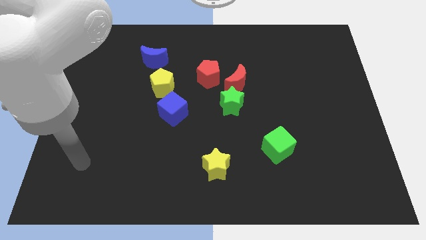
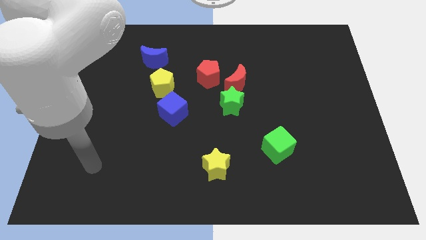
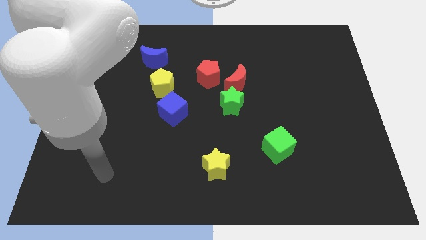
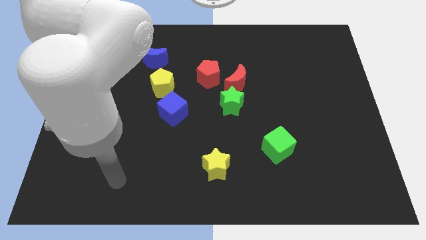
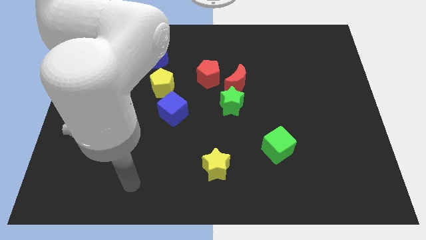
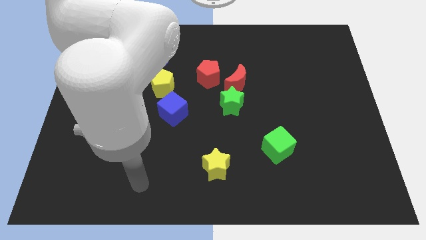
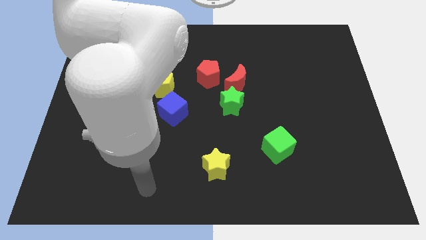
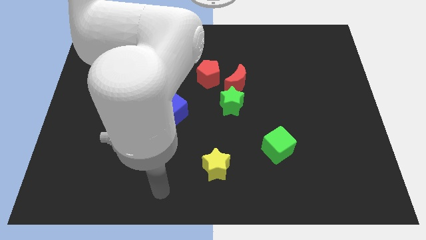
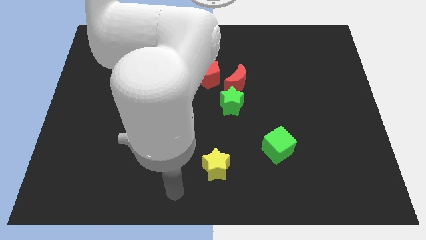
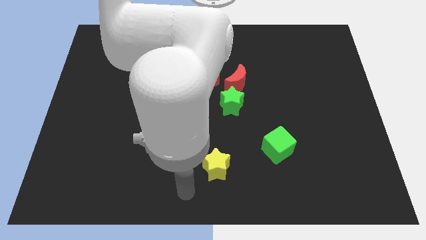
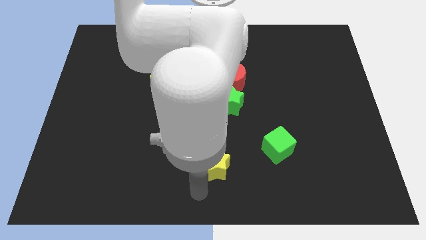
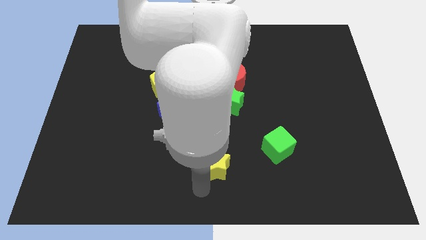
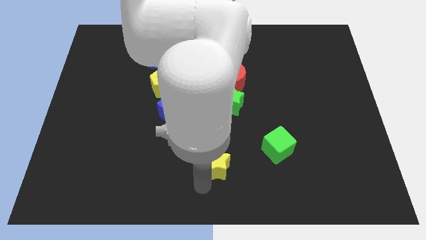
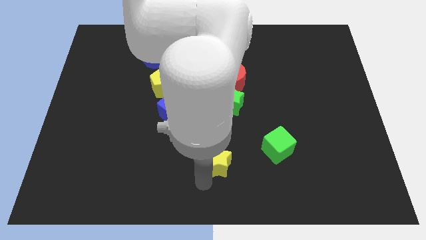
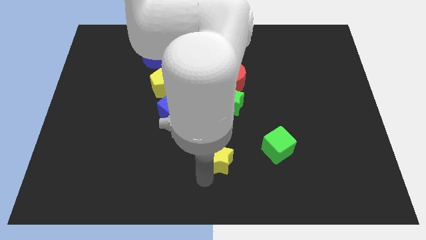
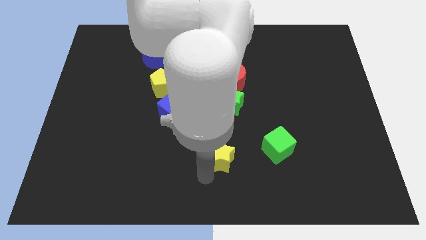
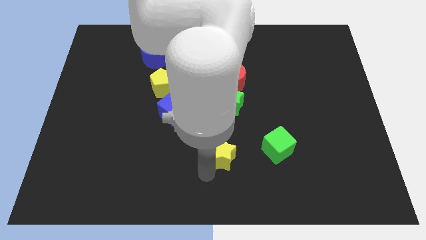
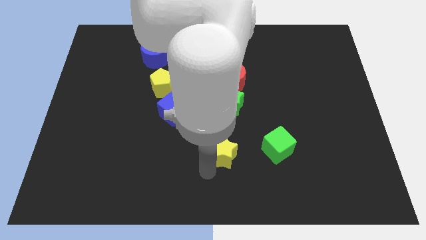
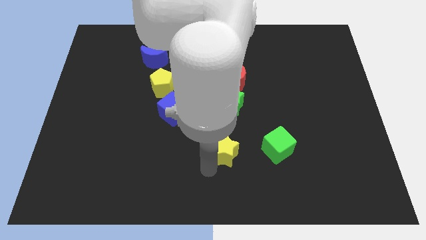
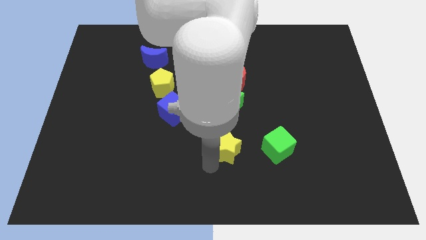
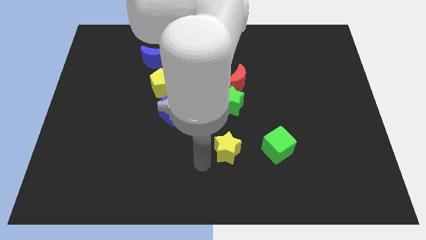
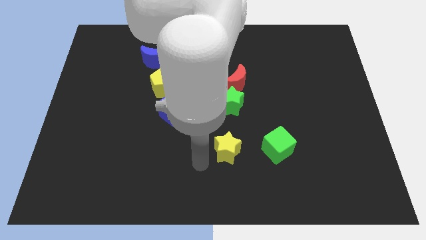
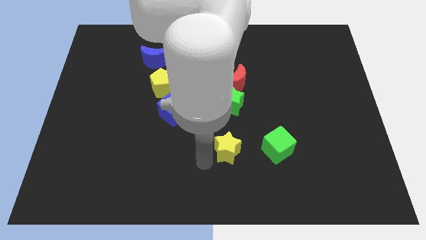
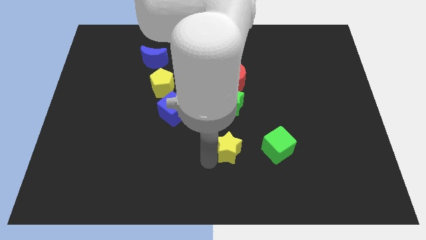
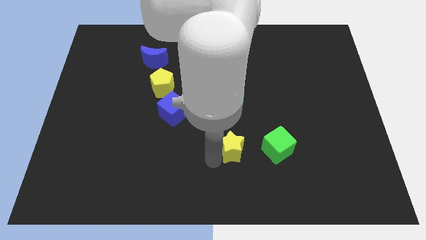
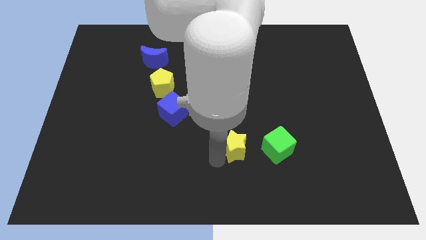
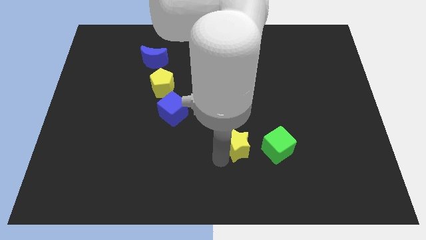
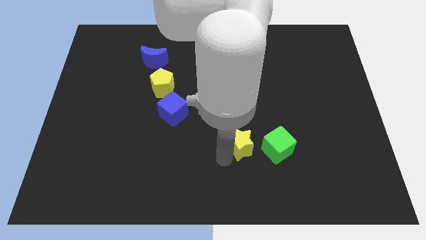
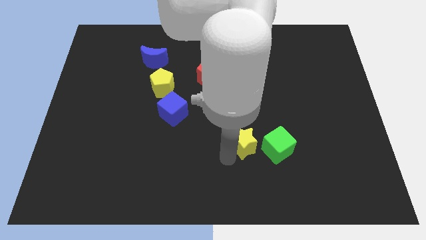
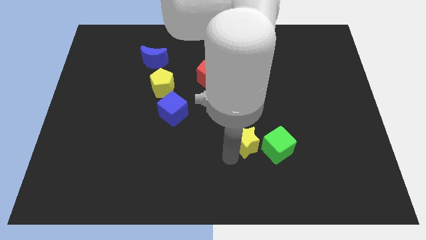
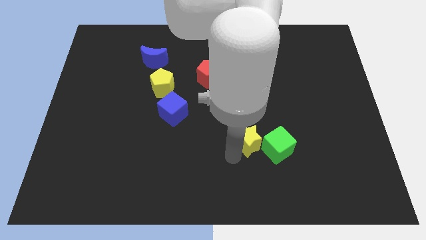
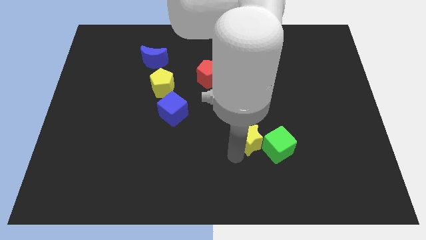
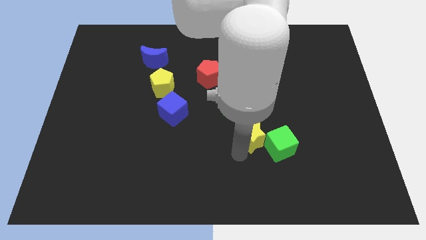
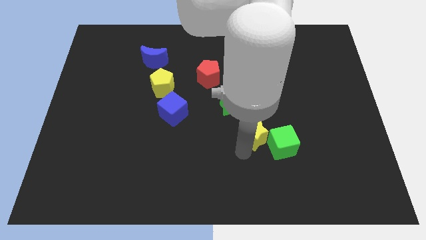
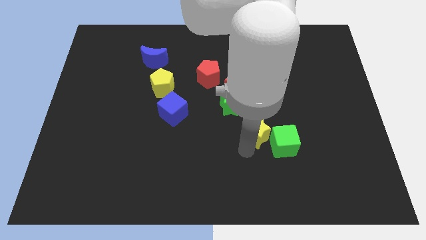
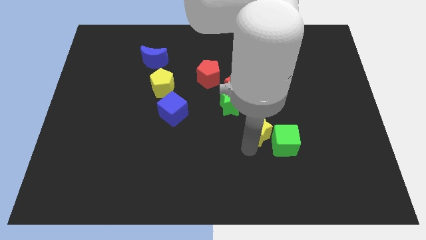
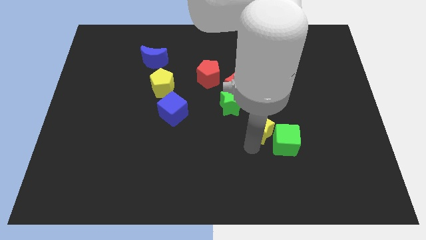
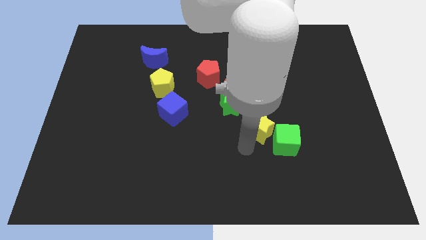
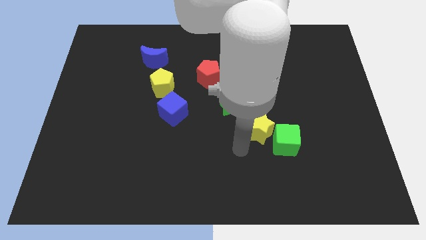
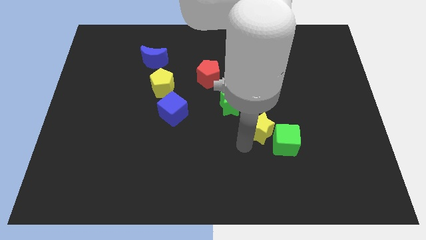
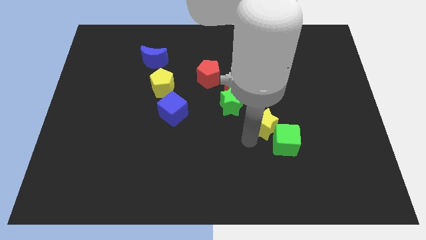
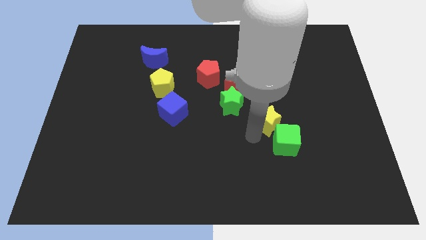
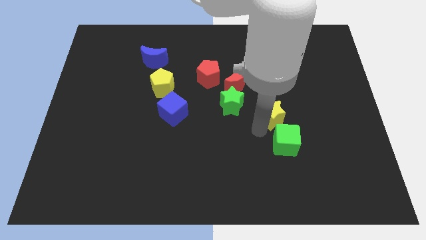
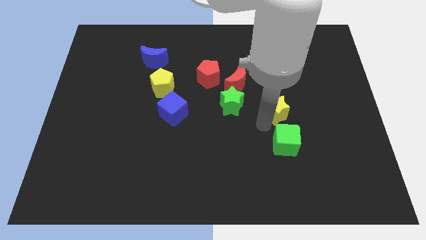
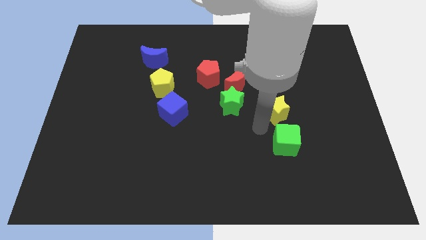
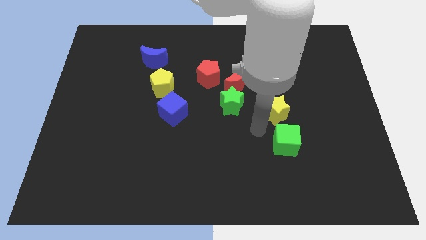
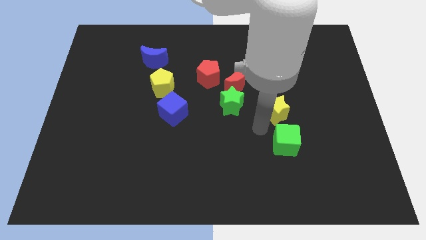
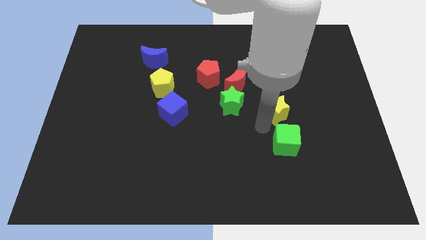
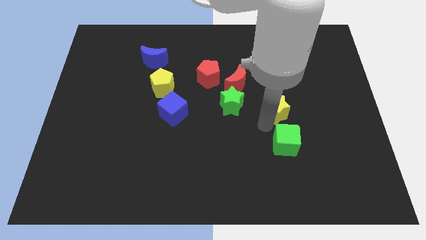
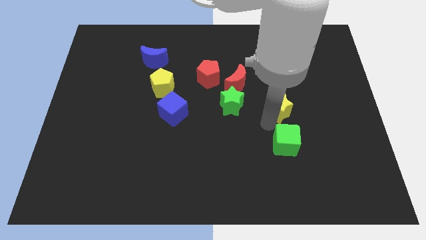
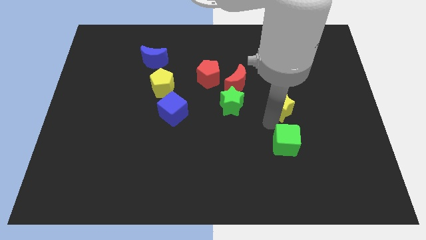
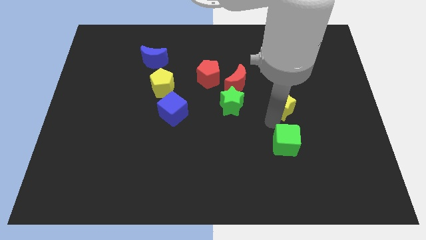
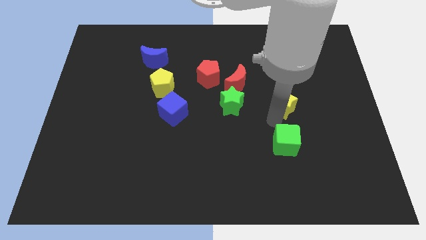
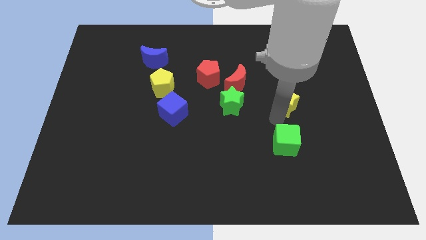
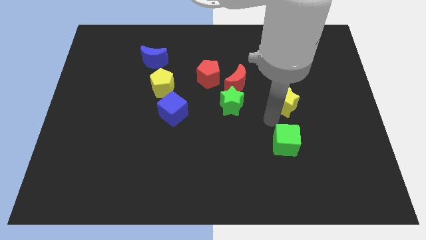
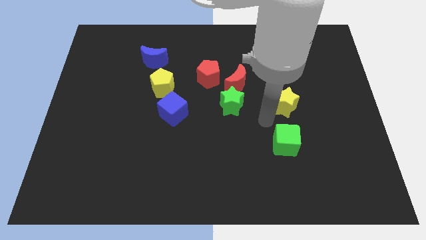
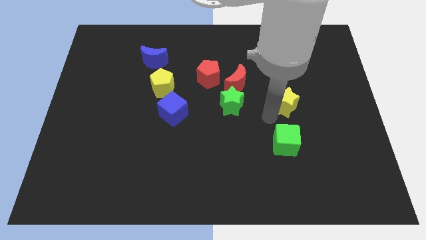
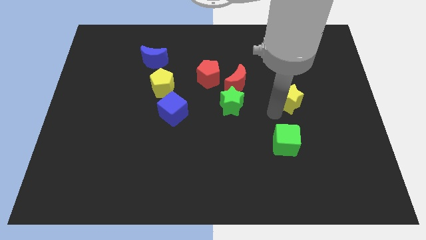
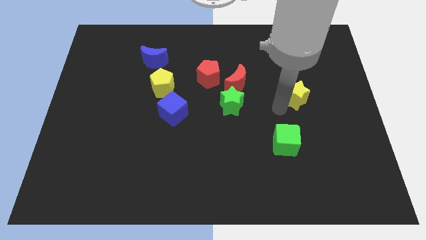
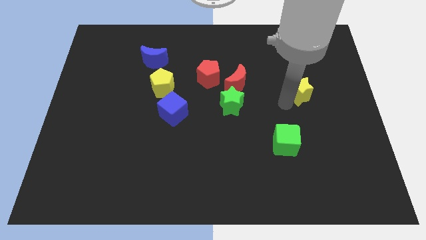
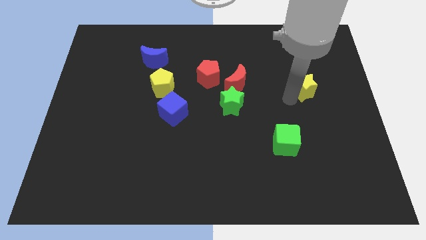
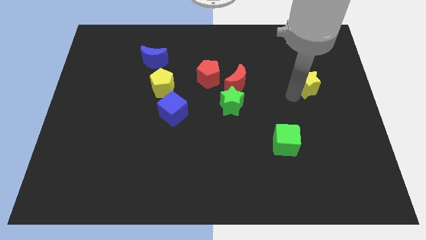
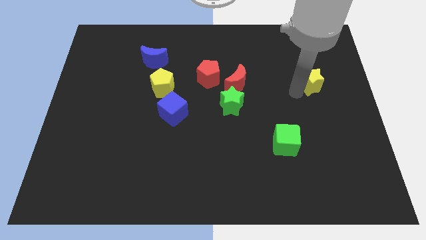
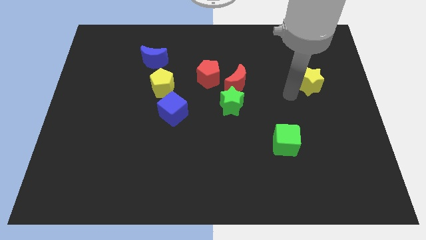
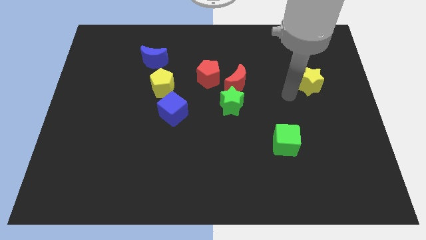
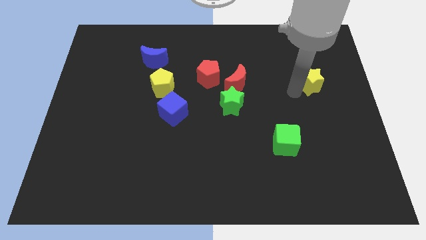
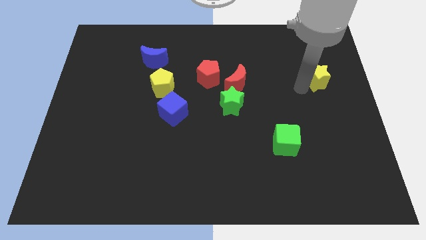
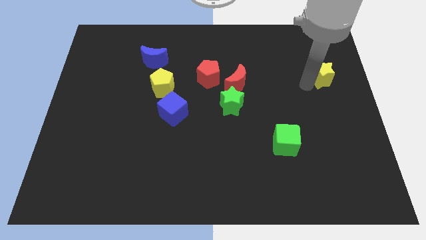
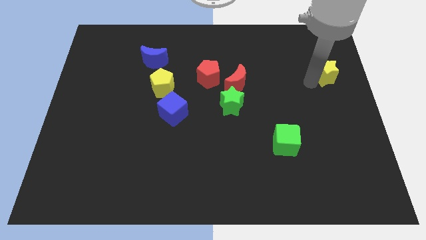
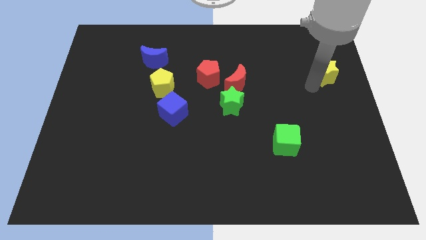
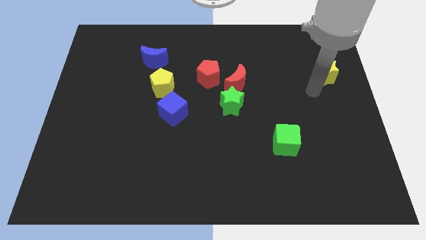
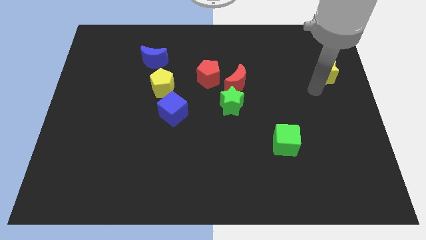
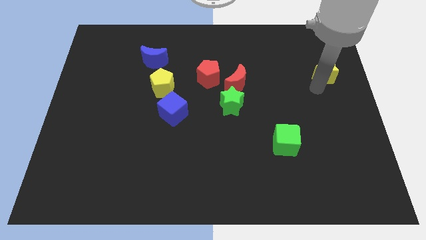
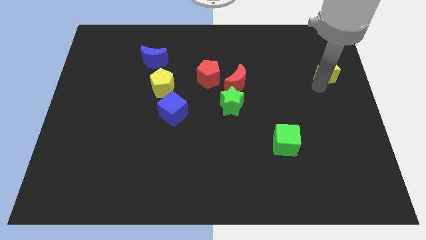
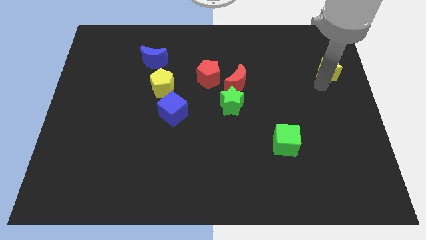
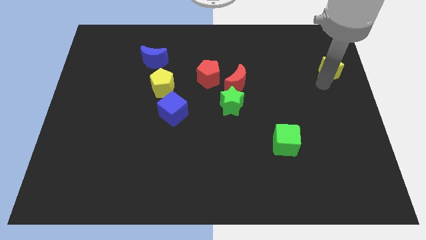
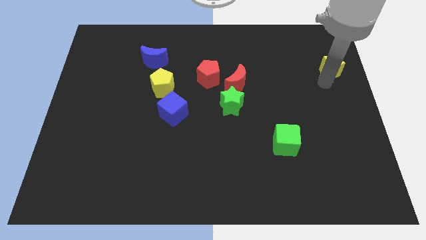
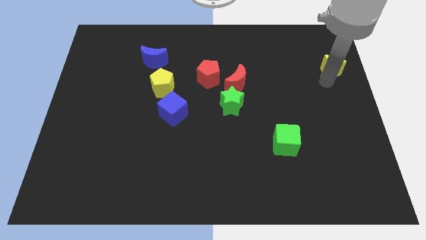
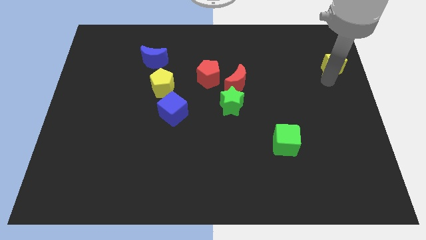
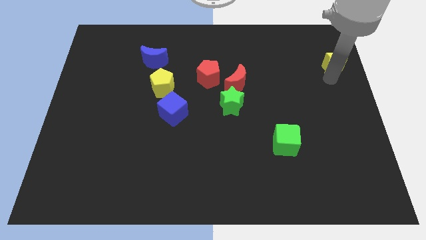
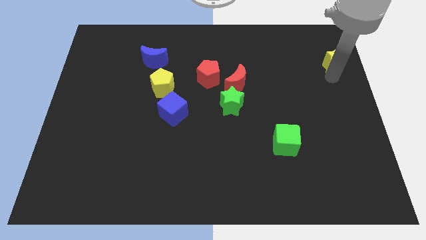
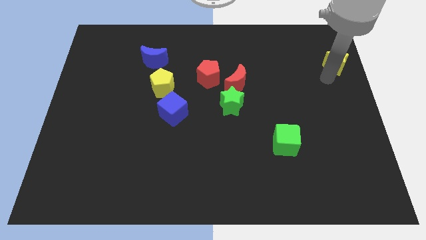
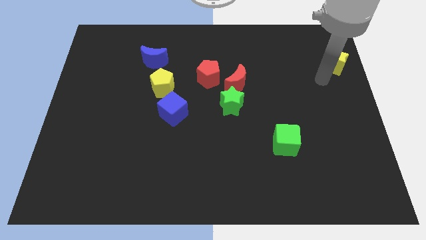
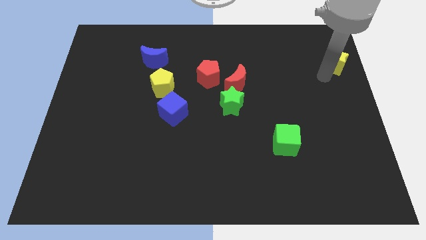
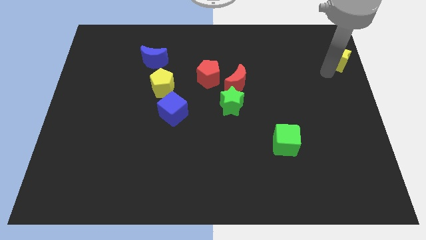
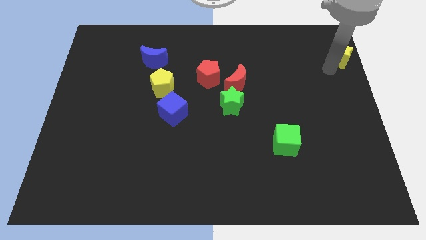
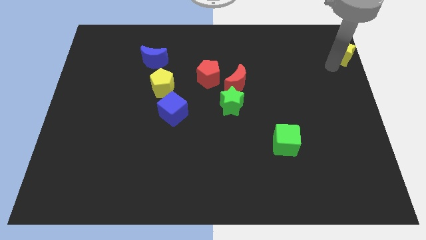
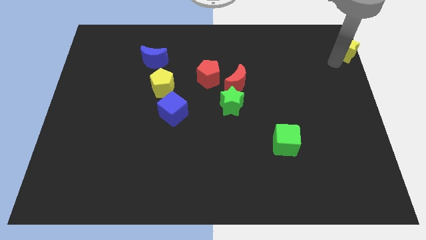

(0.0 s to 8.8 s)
put the yellow star to the top right of the board
